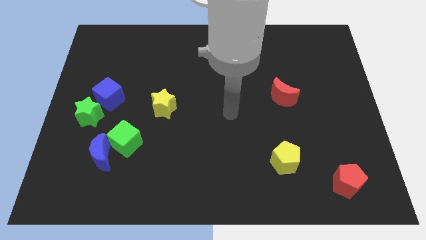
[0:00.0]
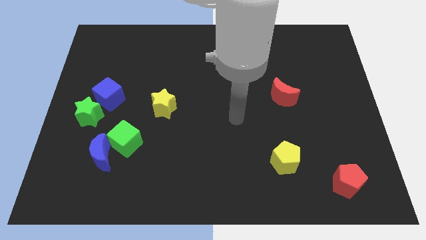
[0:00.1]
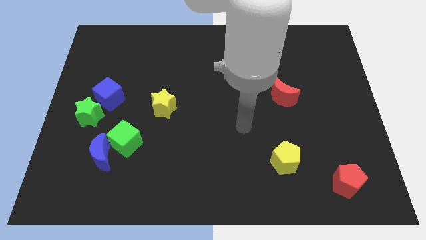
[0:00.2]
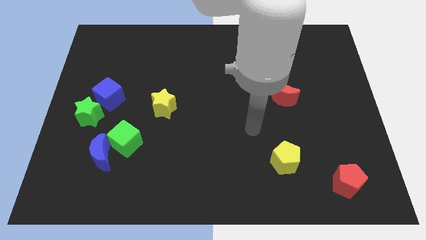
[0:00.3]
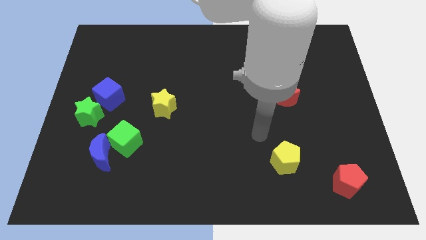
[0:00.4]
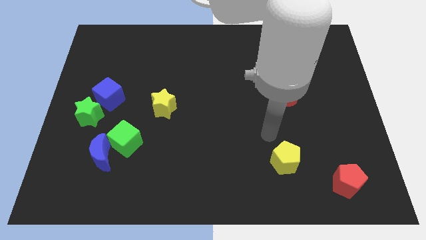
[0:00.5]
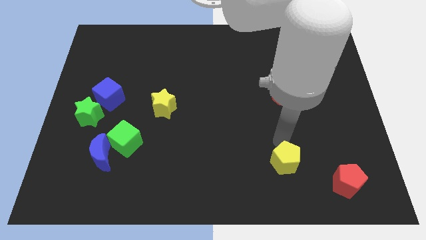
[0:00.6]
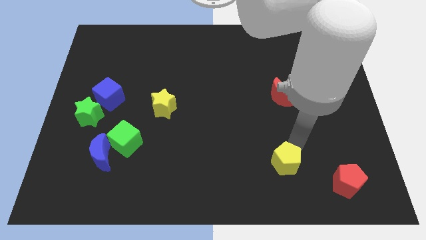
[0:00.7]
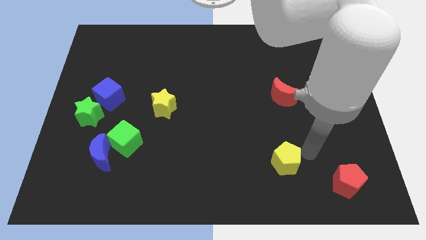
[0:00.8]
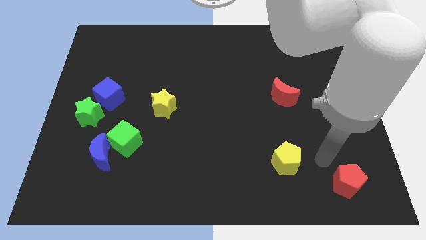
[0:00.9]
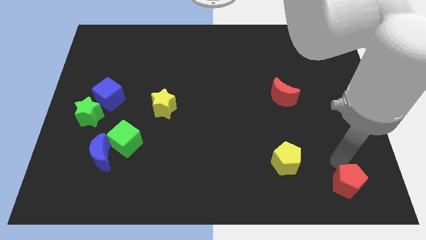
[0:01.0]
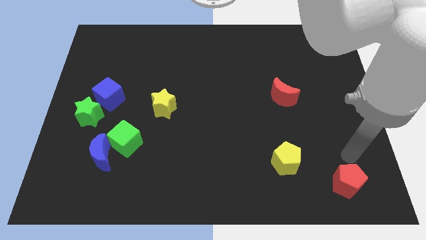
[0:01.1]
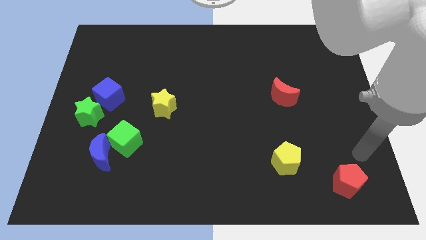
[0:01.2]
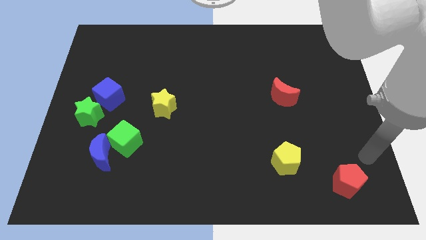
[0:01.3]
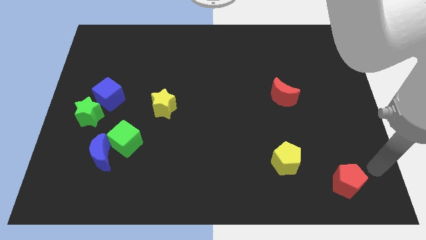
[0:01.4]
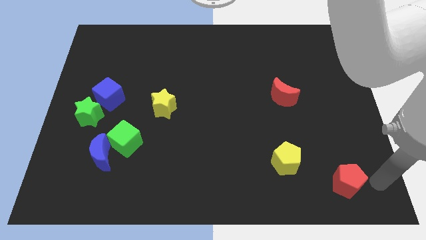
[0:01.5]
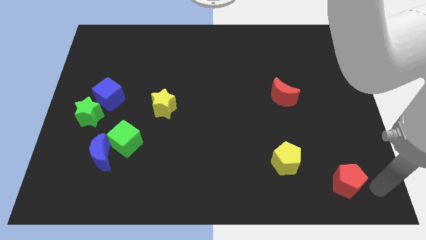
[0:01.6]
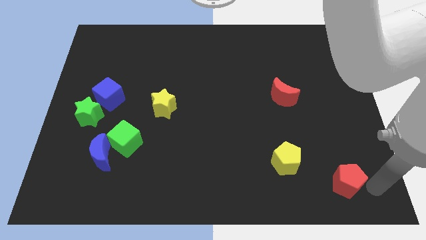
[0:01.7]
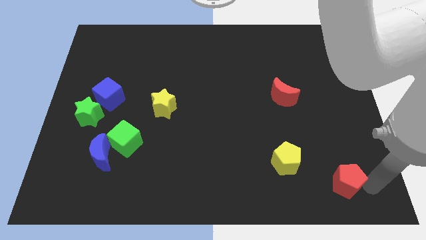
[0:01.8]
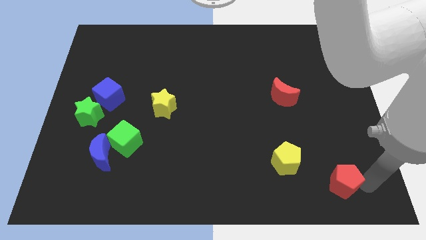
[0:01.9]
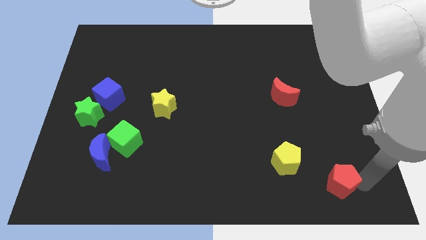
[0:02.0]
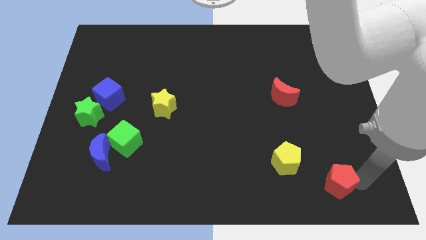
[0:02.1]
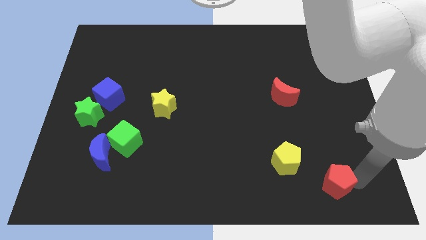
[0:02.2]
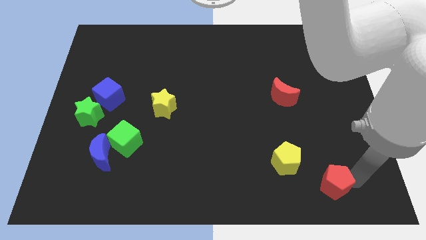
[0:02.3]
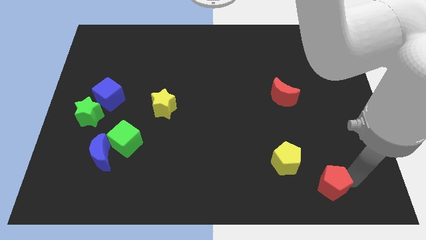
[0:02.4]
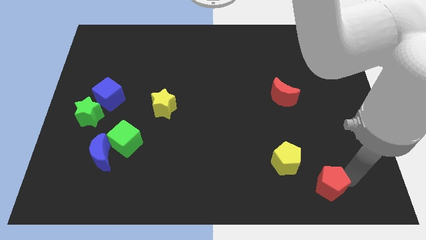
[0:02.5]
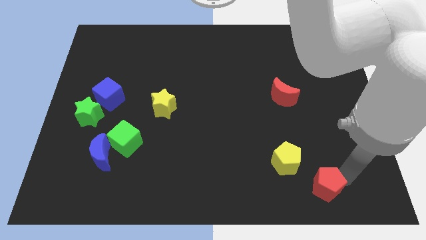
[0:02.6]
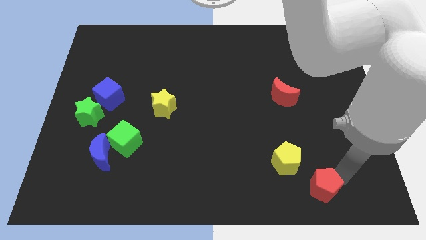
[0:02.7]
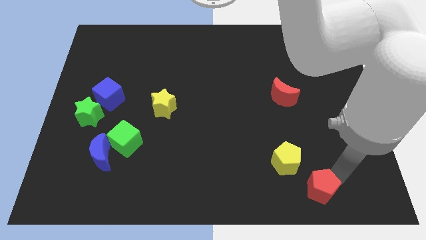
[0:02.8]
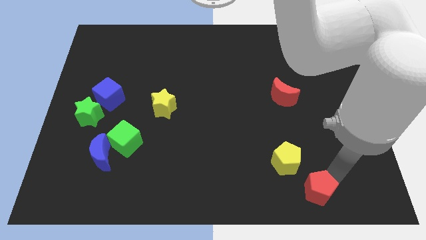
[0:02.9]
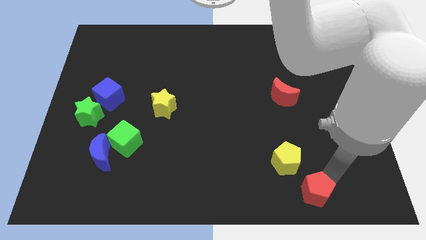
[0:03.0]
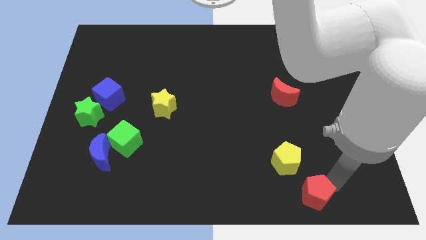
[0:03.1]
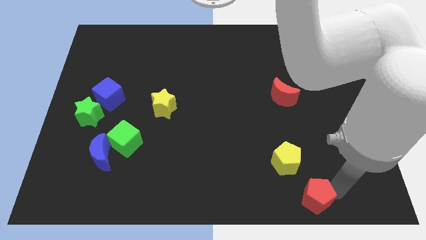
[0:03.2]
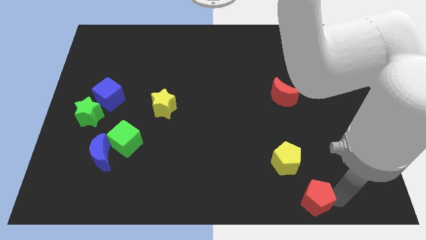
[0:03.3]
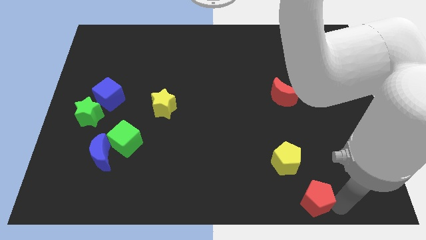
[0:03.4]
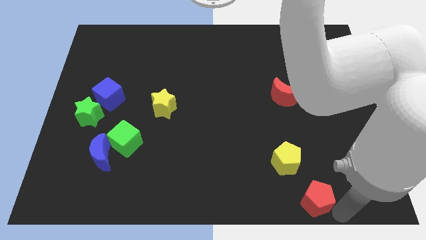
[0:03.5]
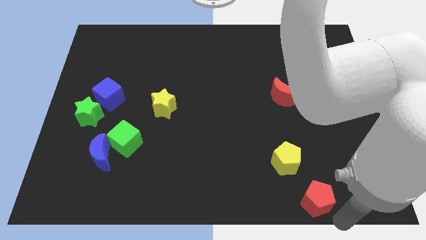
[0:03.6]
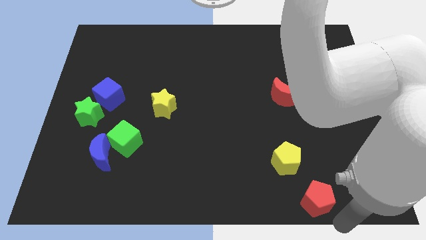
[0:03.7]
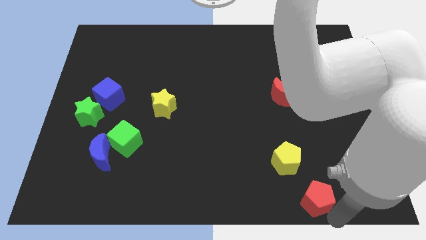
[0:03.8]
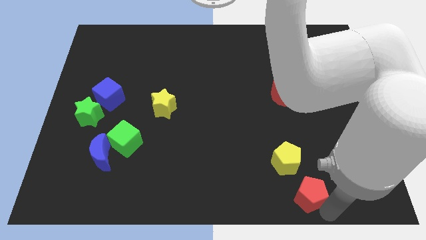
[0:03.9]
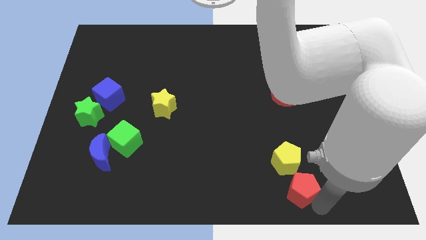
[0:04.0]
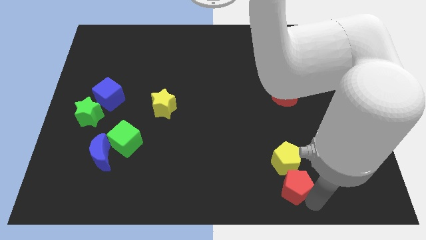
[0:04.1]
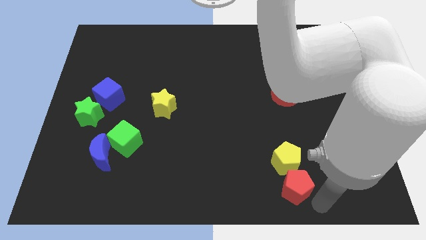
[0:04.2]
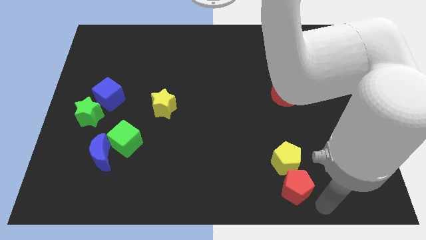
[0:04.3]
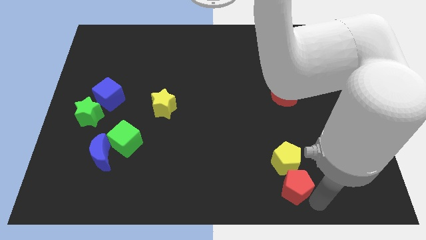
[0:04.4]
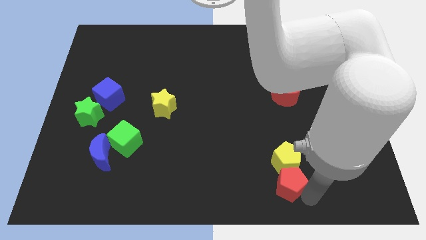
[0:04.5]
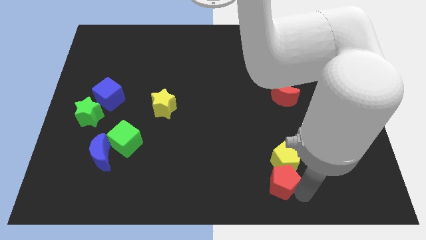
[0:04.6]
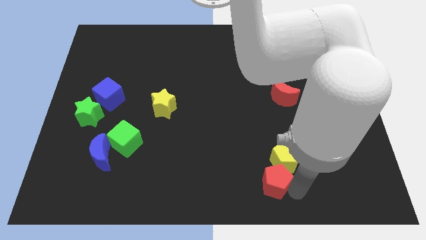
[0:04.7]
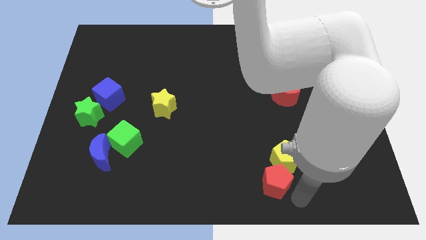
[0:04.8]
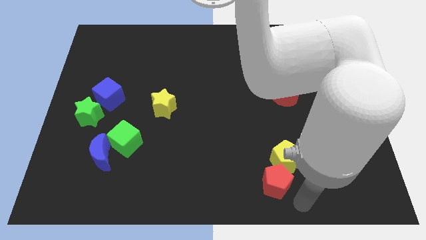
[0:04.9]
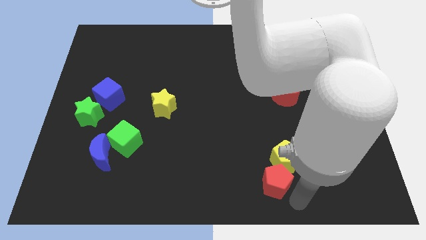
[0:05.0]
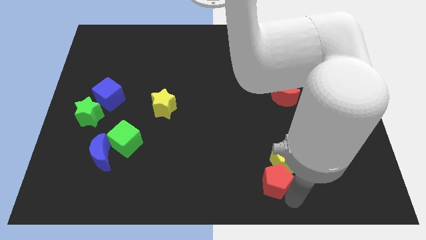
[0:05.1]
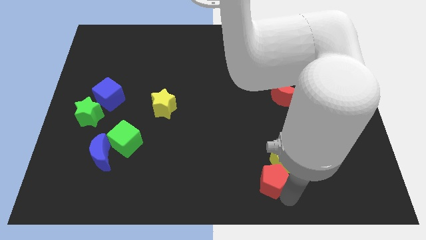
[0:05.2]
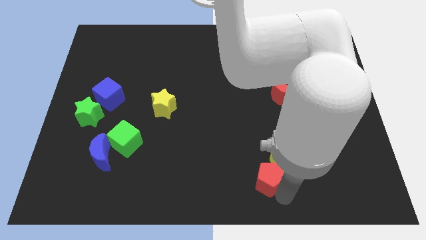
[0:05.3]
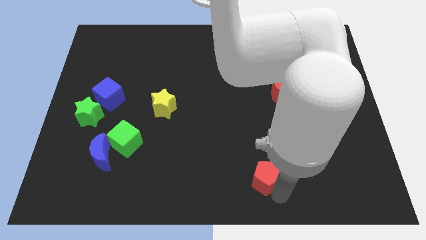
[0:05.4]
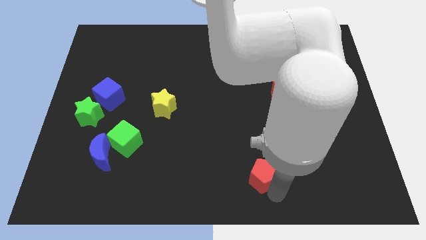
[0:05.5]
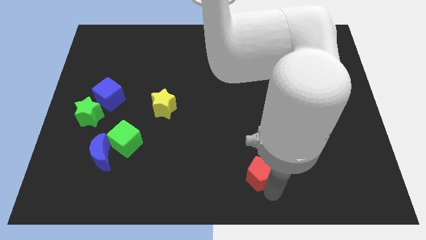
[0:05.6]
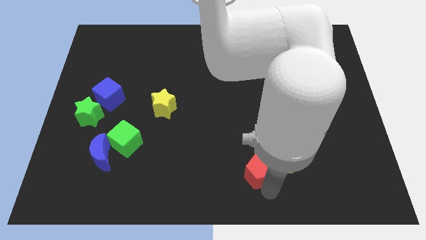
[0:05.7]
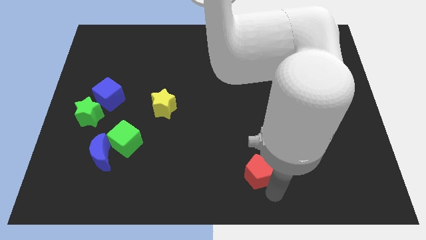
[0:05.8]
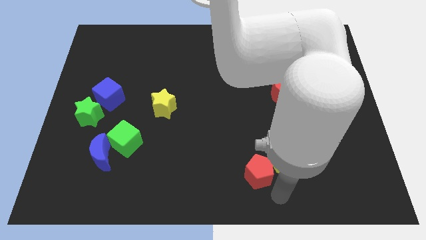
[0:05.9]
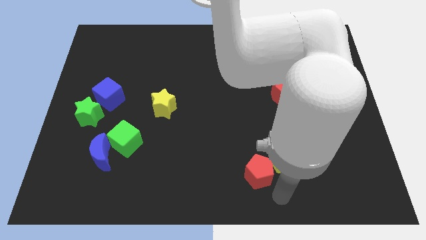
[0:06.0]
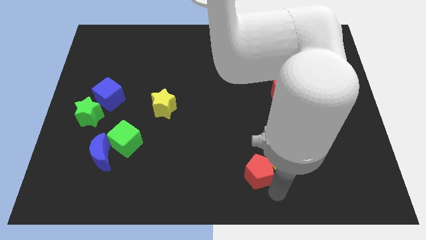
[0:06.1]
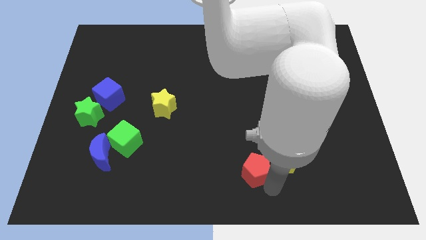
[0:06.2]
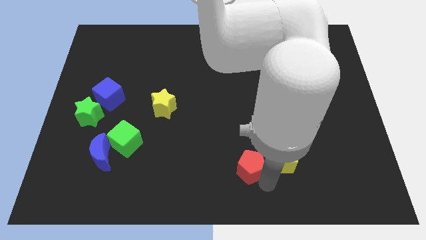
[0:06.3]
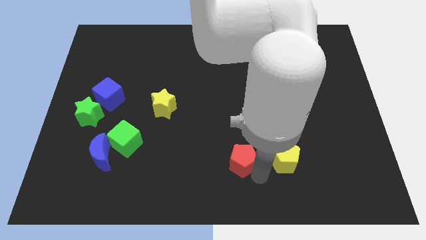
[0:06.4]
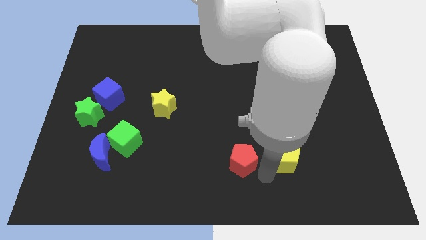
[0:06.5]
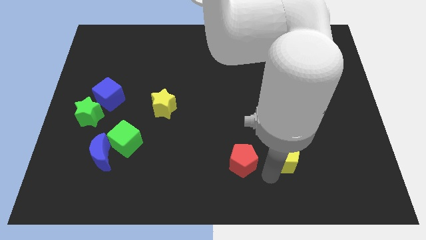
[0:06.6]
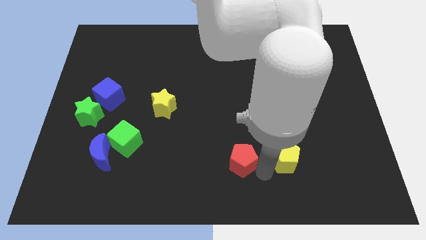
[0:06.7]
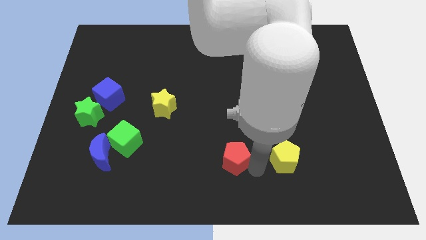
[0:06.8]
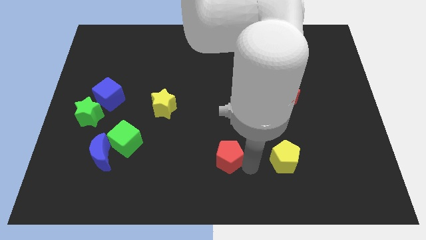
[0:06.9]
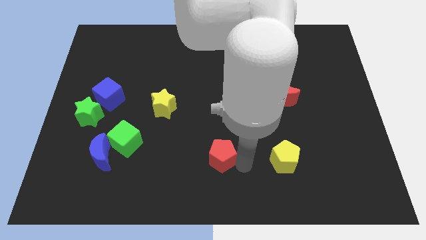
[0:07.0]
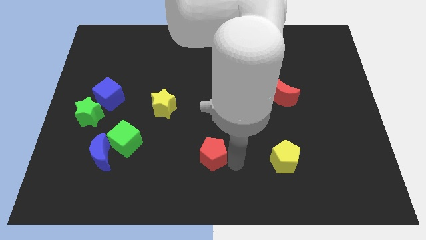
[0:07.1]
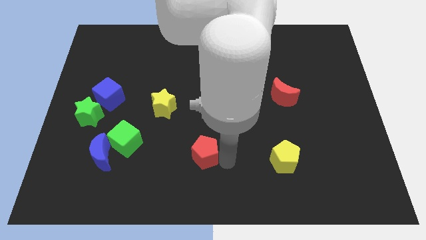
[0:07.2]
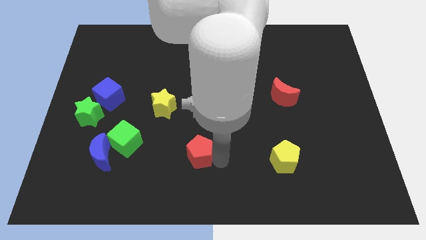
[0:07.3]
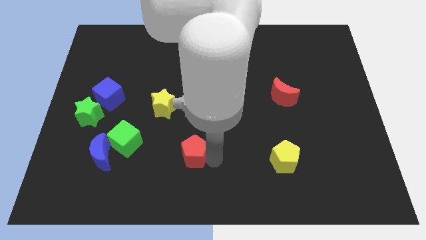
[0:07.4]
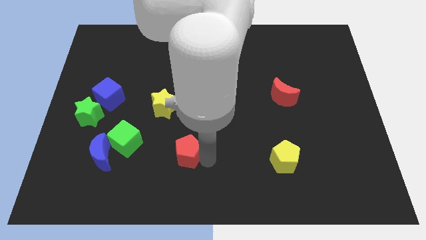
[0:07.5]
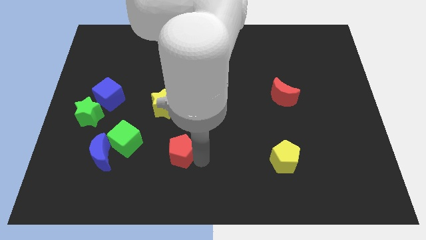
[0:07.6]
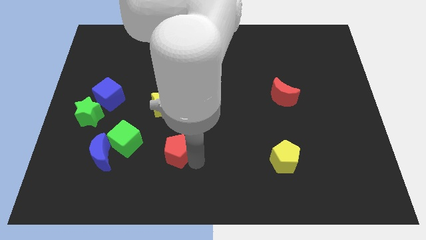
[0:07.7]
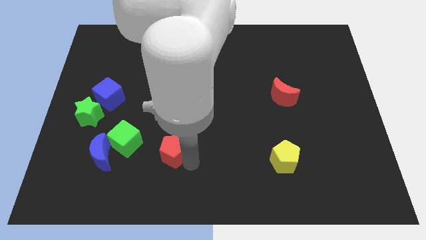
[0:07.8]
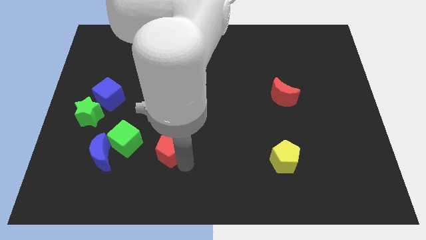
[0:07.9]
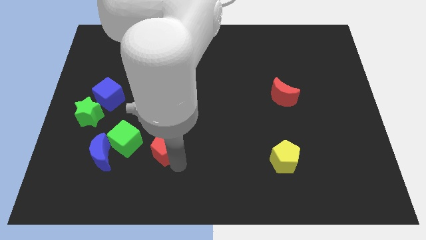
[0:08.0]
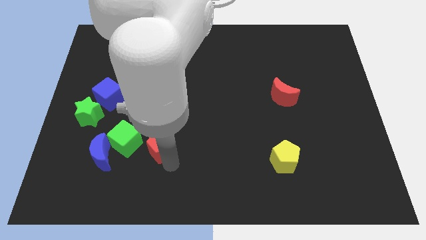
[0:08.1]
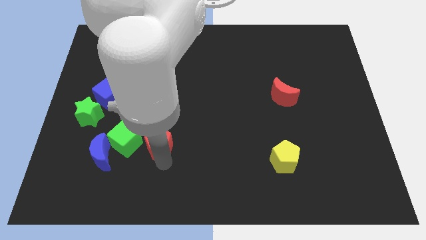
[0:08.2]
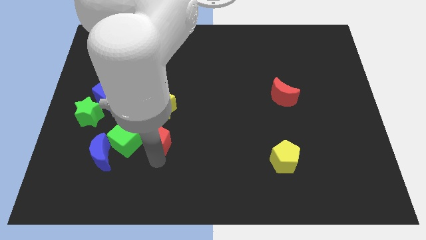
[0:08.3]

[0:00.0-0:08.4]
push the red pentagon diagonally up and to the right of the green cube
